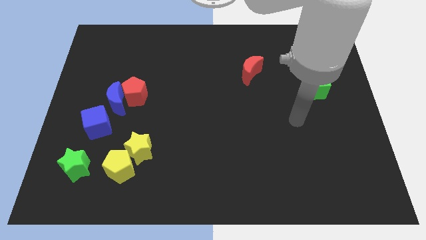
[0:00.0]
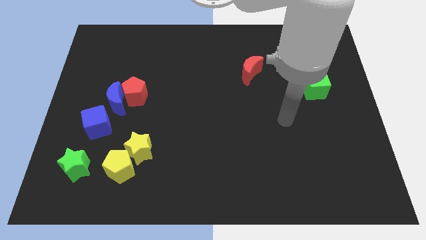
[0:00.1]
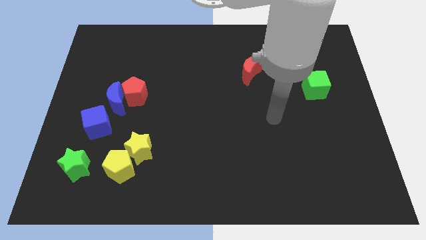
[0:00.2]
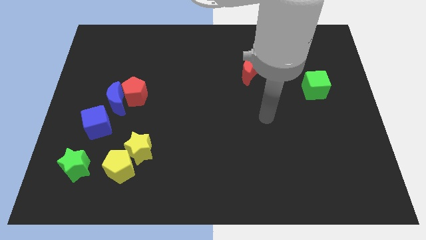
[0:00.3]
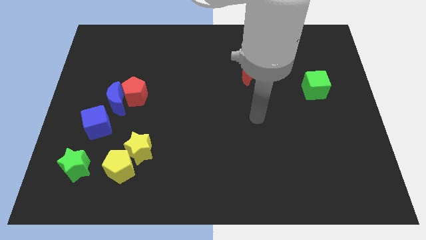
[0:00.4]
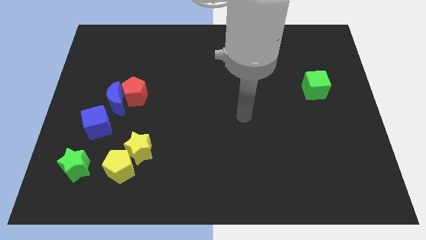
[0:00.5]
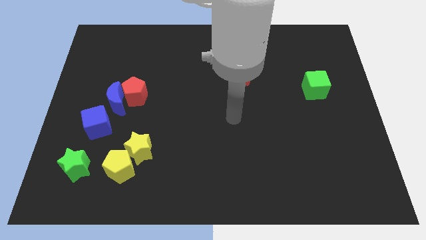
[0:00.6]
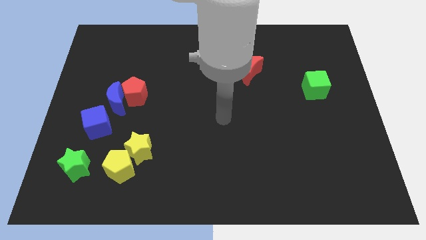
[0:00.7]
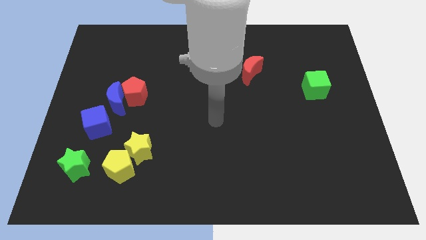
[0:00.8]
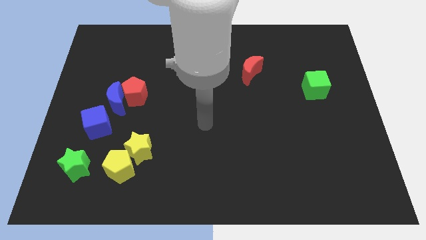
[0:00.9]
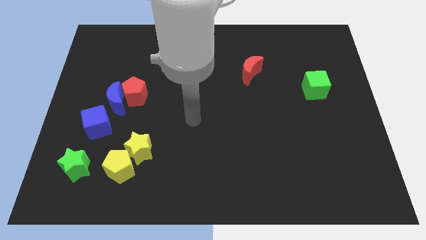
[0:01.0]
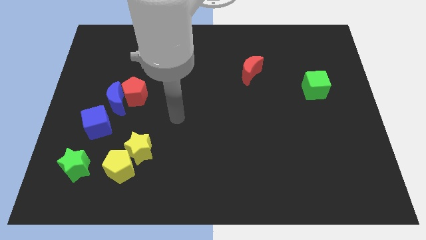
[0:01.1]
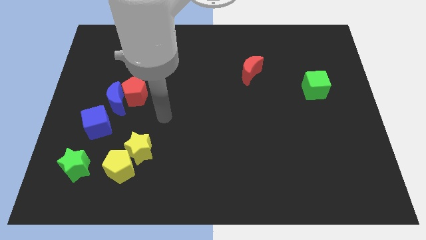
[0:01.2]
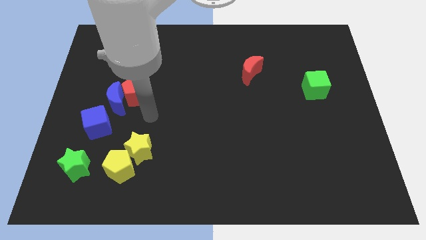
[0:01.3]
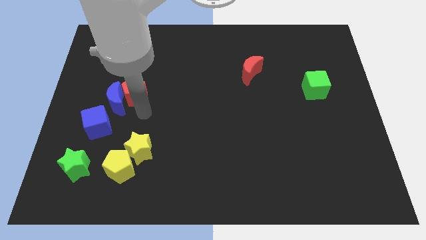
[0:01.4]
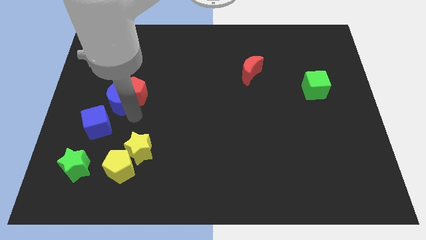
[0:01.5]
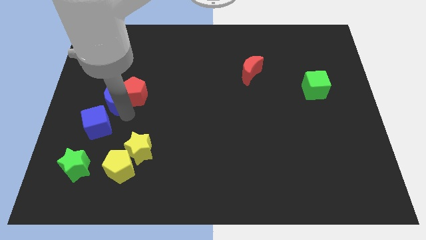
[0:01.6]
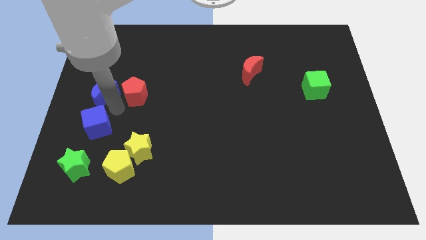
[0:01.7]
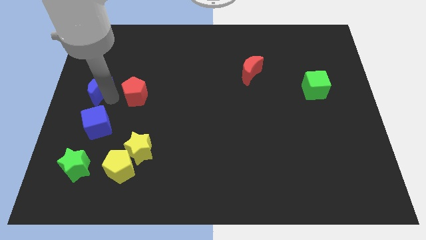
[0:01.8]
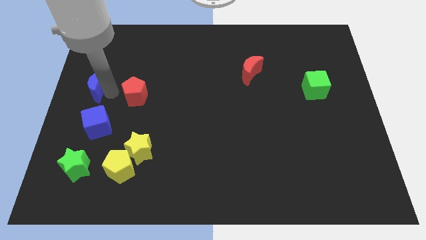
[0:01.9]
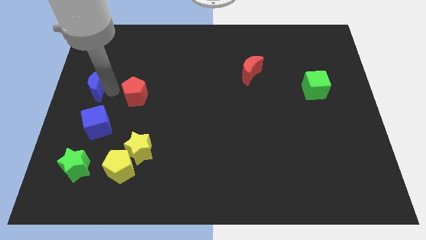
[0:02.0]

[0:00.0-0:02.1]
separate the red pentagon from the blue moon

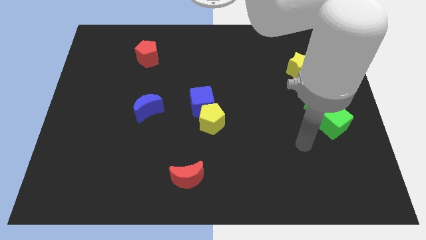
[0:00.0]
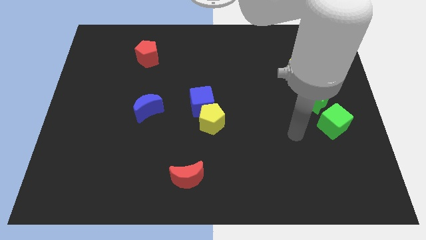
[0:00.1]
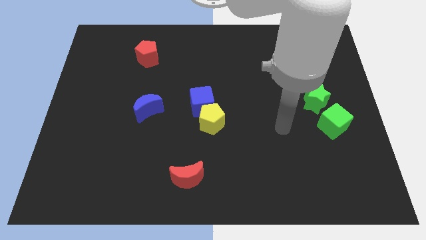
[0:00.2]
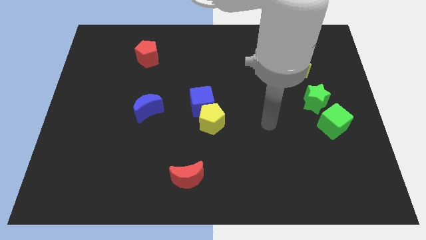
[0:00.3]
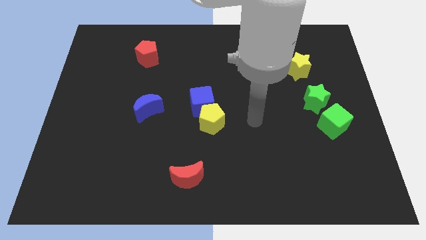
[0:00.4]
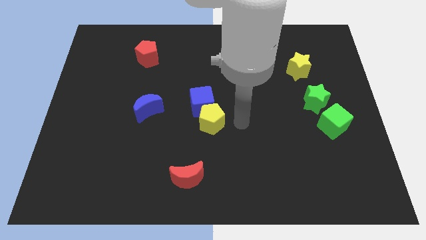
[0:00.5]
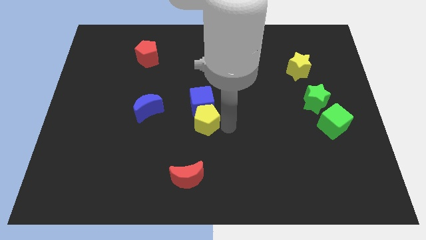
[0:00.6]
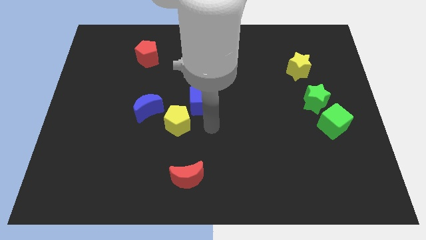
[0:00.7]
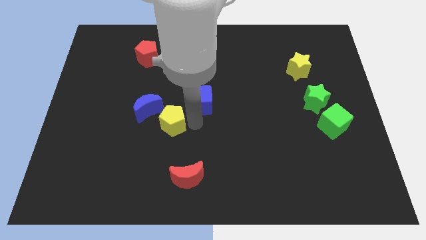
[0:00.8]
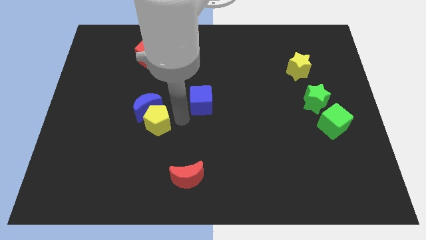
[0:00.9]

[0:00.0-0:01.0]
separate the blue cube from the yellow pentagon

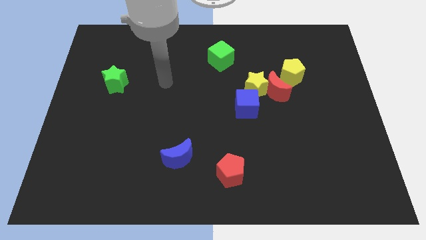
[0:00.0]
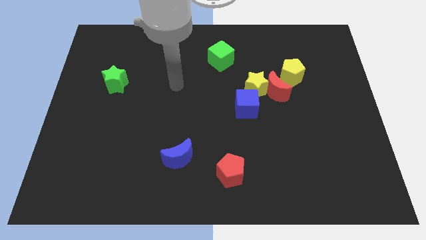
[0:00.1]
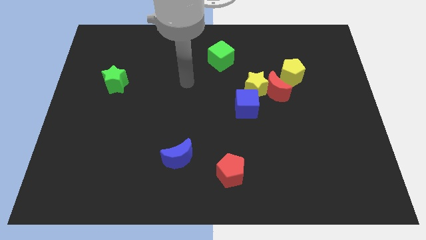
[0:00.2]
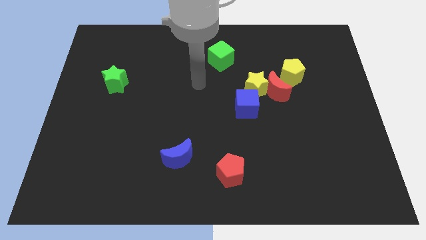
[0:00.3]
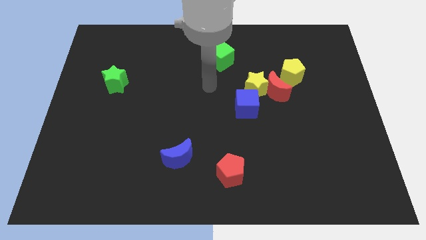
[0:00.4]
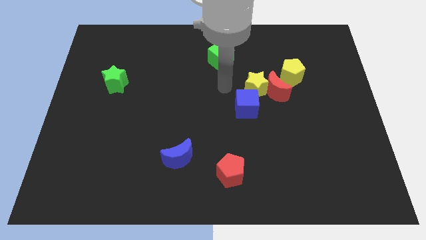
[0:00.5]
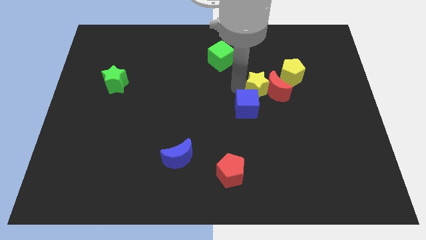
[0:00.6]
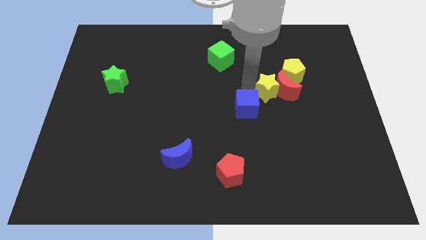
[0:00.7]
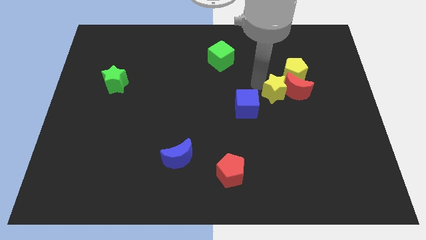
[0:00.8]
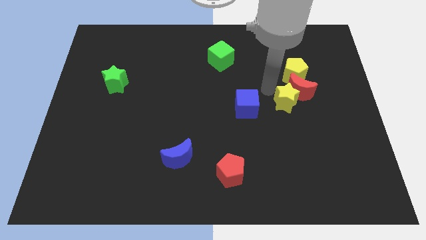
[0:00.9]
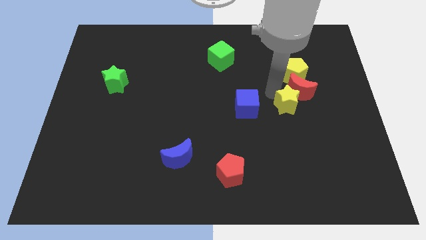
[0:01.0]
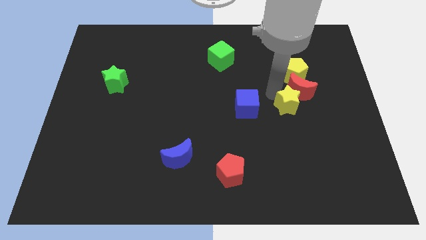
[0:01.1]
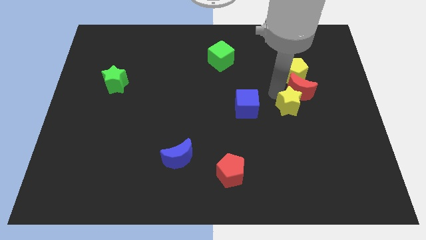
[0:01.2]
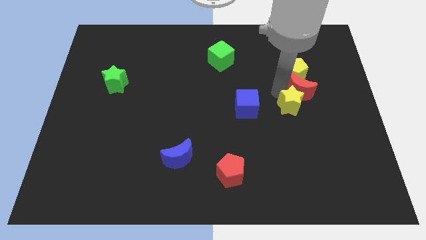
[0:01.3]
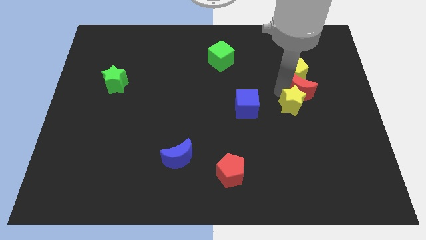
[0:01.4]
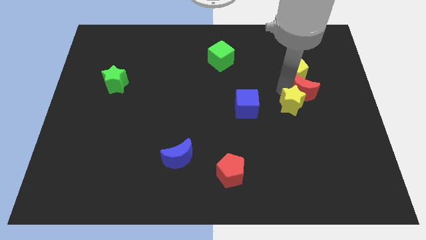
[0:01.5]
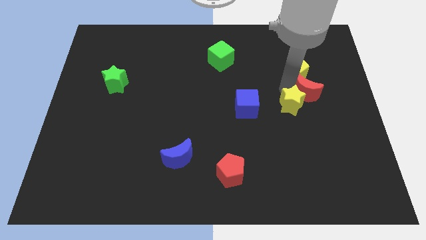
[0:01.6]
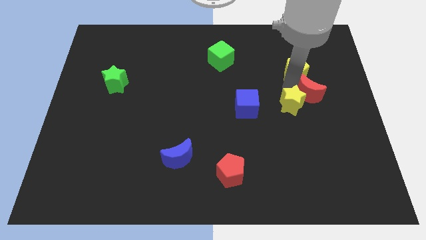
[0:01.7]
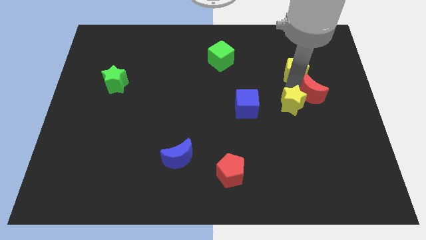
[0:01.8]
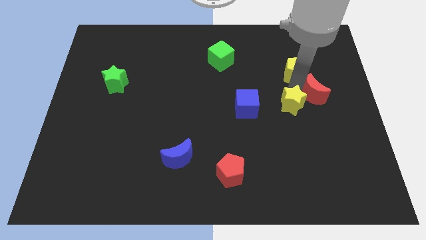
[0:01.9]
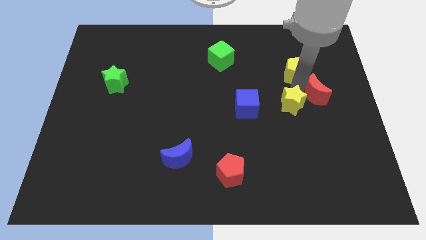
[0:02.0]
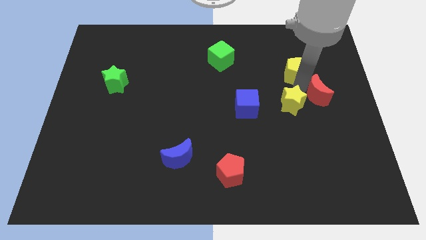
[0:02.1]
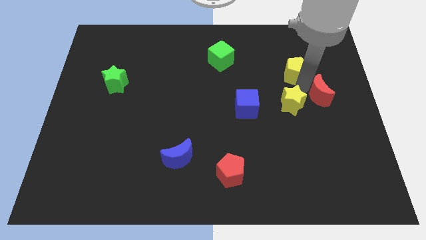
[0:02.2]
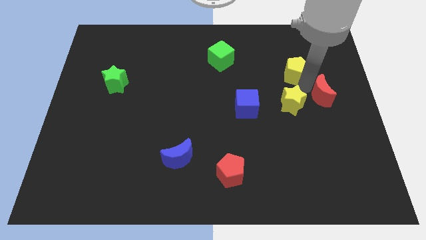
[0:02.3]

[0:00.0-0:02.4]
separate the red moon from the clump

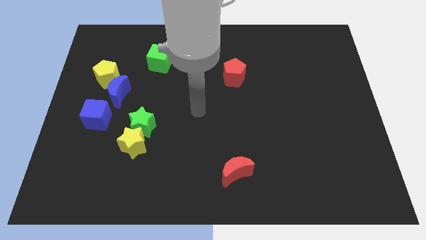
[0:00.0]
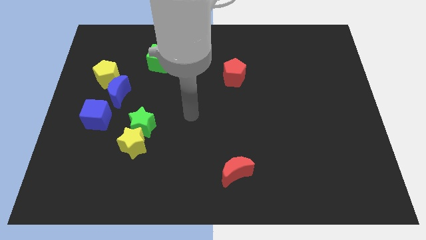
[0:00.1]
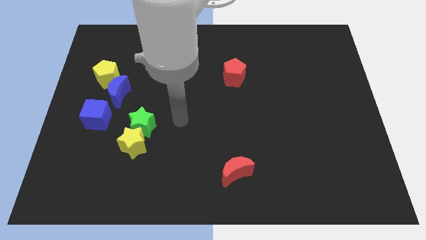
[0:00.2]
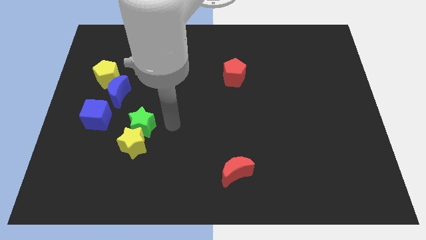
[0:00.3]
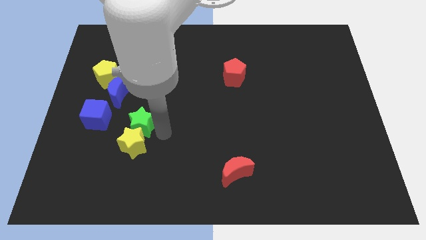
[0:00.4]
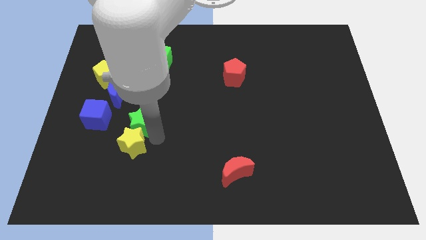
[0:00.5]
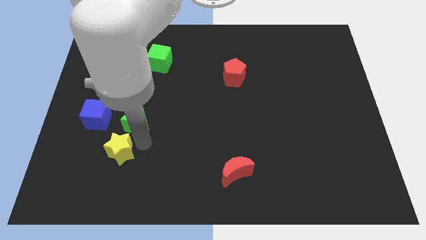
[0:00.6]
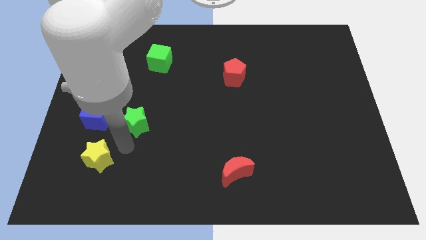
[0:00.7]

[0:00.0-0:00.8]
separate the green star from the yellow star

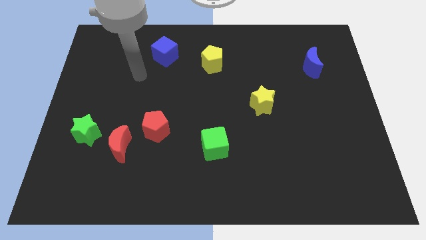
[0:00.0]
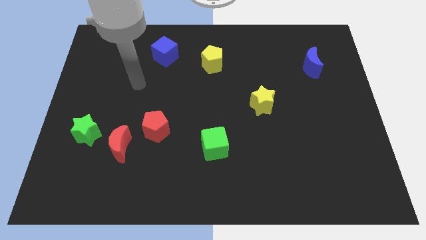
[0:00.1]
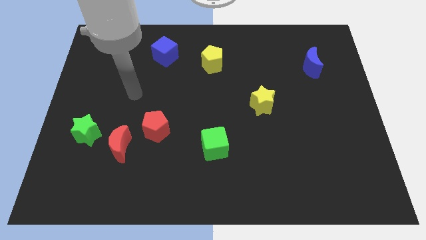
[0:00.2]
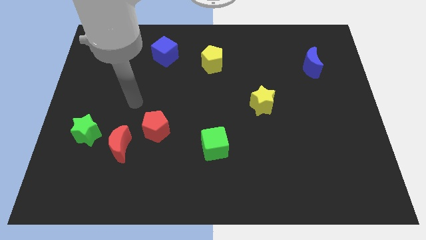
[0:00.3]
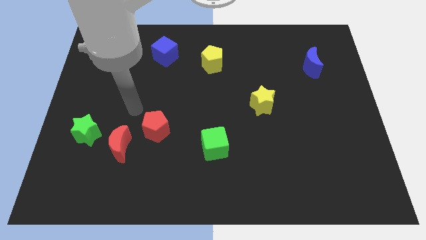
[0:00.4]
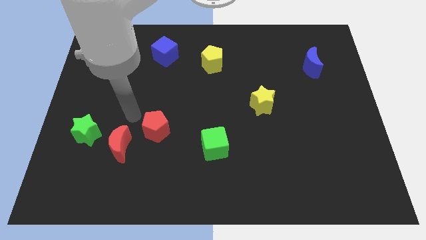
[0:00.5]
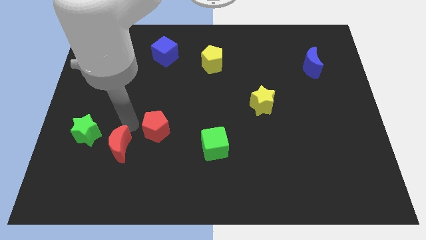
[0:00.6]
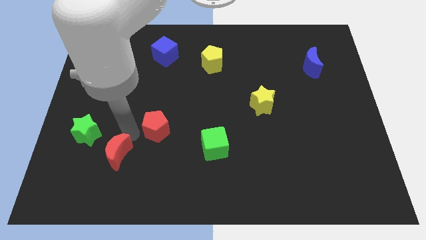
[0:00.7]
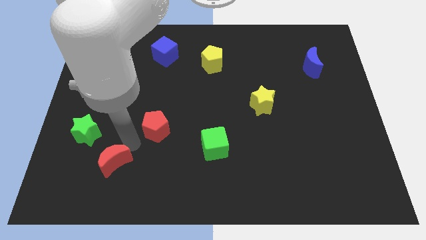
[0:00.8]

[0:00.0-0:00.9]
separate the red pentagon from the red moon

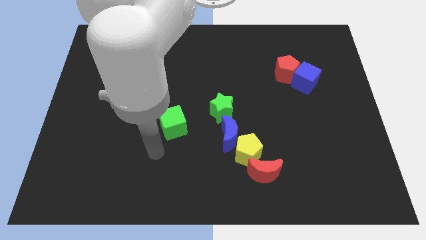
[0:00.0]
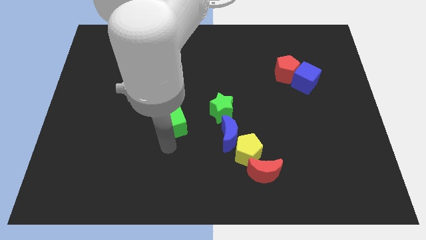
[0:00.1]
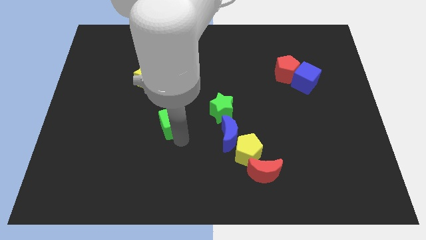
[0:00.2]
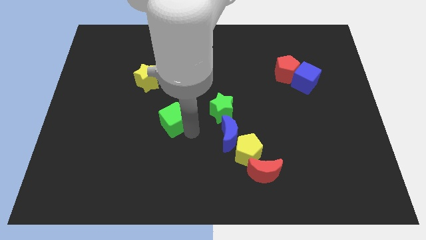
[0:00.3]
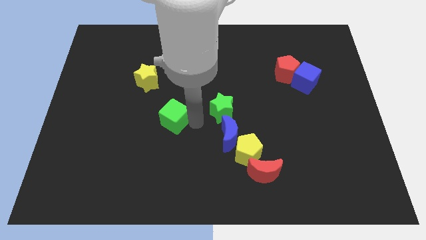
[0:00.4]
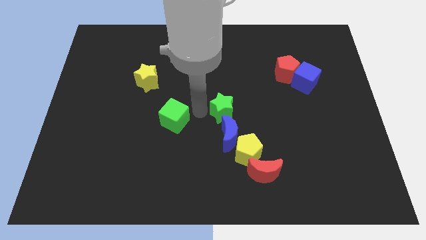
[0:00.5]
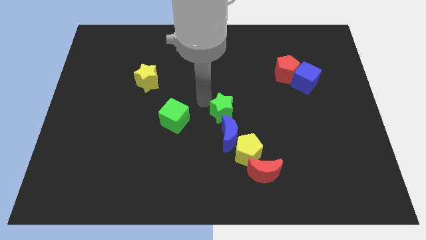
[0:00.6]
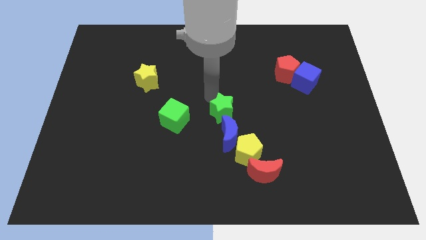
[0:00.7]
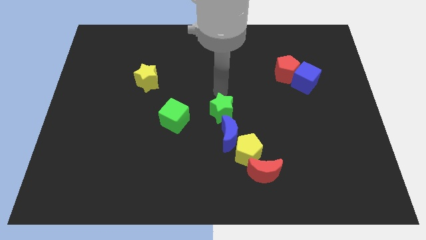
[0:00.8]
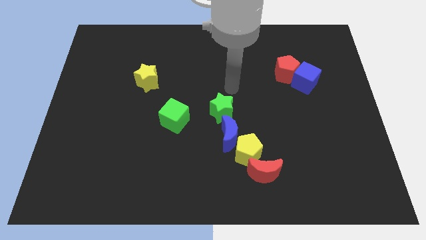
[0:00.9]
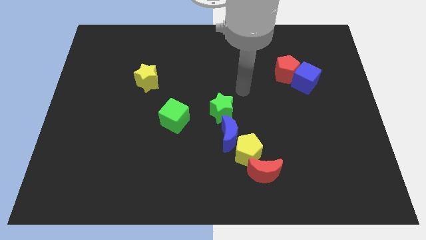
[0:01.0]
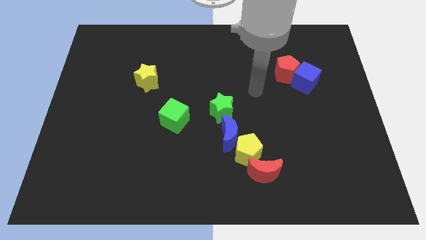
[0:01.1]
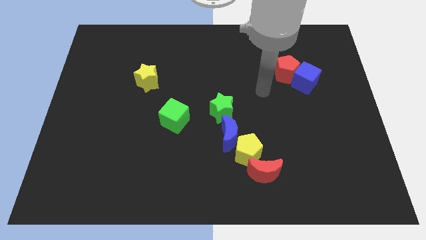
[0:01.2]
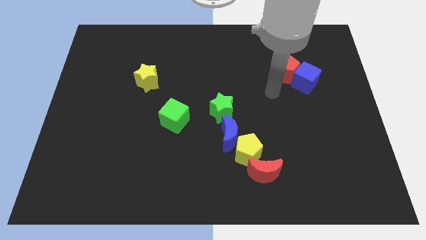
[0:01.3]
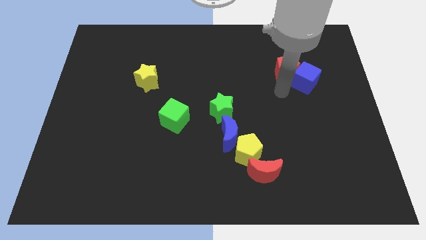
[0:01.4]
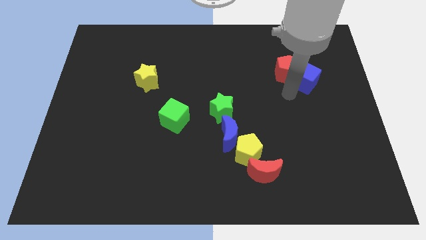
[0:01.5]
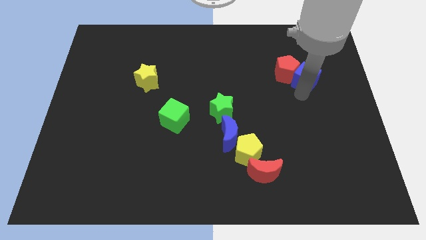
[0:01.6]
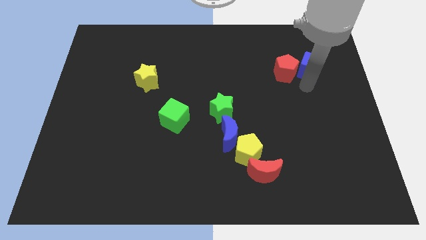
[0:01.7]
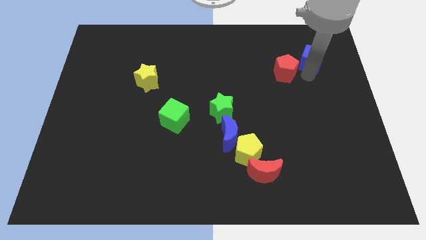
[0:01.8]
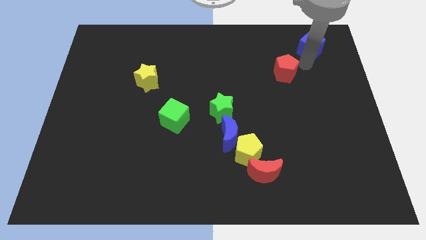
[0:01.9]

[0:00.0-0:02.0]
separate the red pentagon from the blue cube
